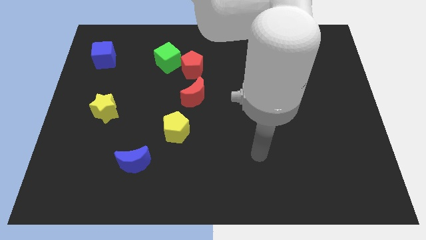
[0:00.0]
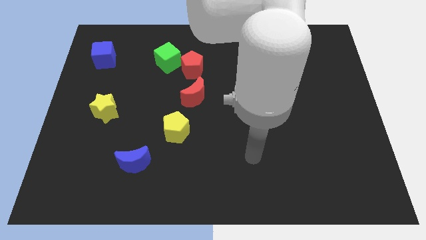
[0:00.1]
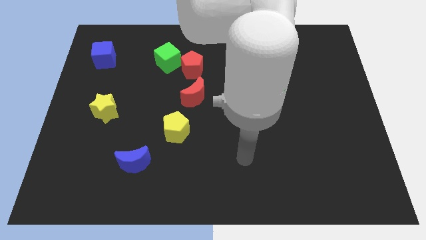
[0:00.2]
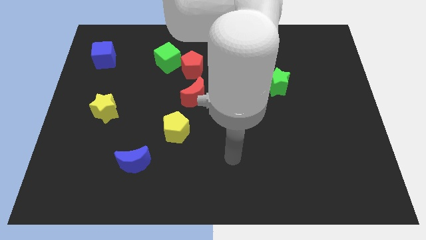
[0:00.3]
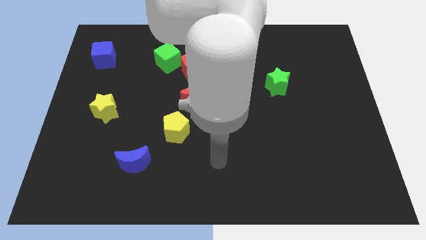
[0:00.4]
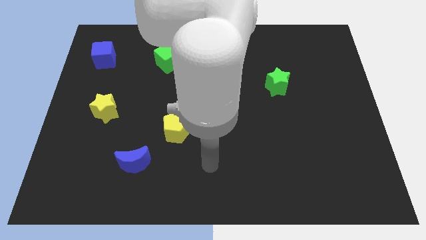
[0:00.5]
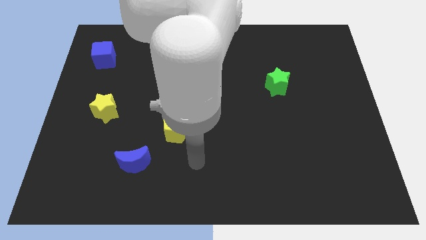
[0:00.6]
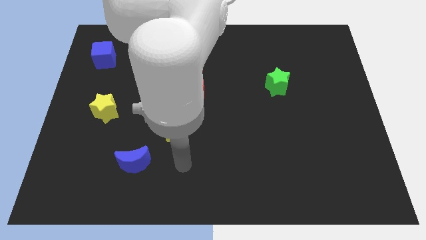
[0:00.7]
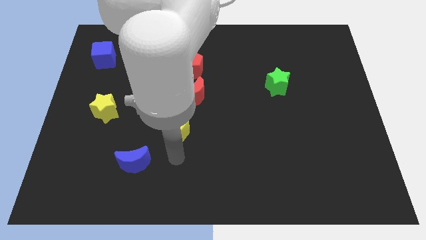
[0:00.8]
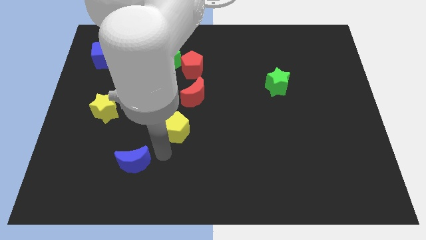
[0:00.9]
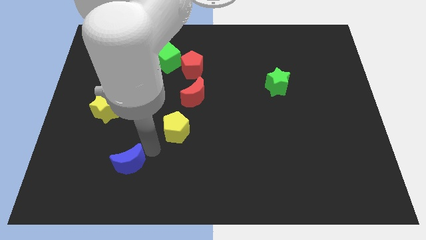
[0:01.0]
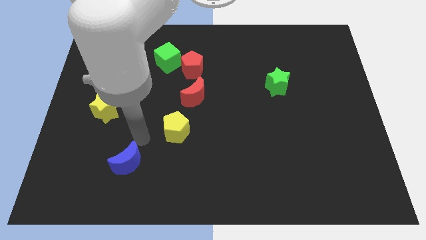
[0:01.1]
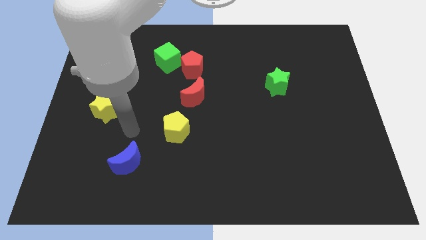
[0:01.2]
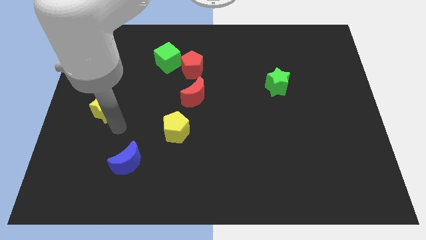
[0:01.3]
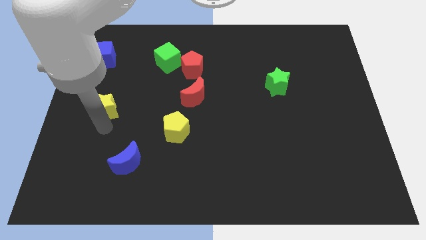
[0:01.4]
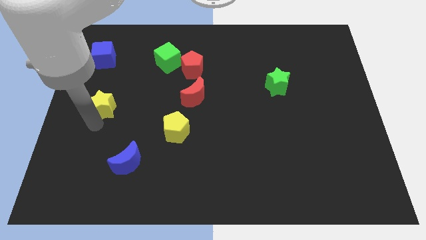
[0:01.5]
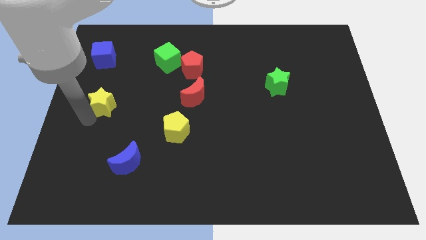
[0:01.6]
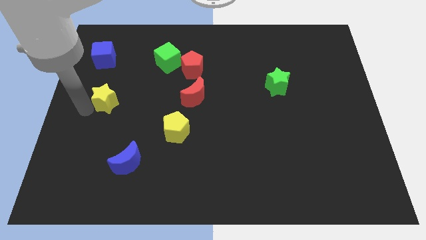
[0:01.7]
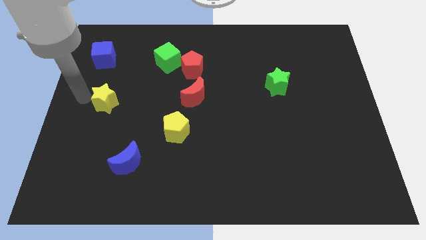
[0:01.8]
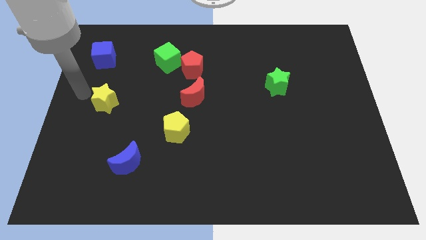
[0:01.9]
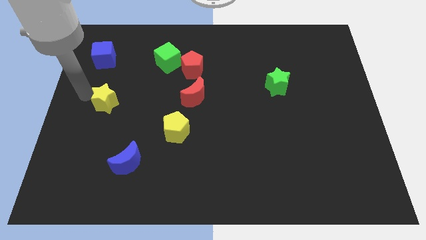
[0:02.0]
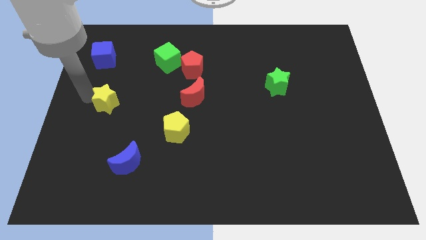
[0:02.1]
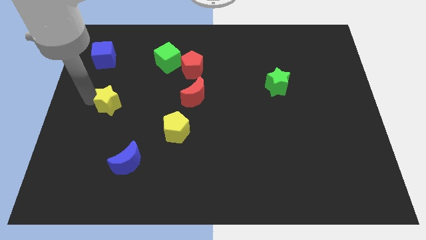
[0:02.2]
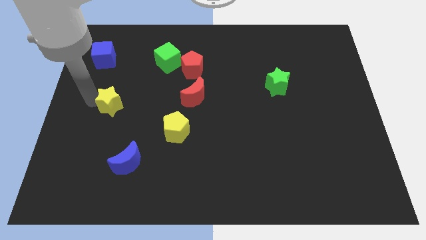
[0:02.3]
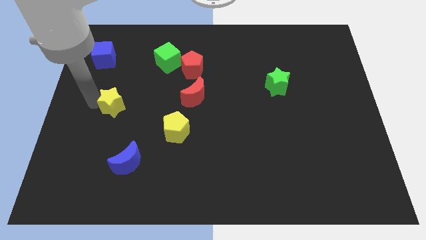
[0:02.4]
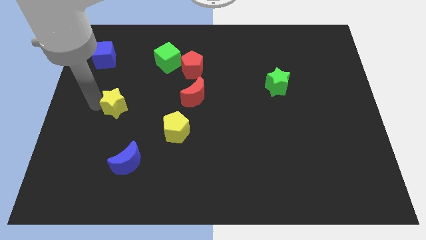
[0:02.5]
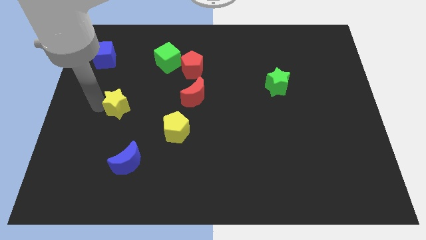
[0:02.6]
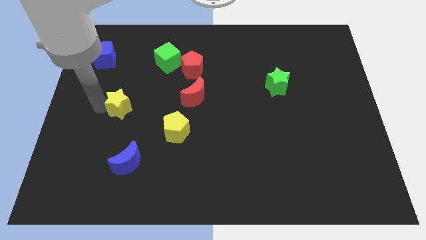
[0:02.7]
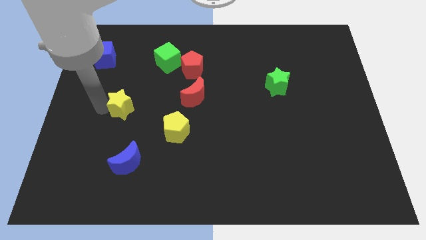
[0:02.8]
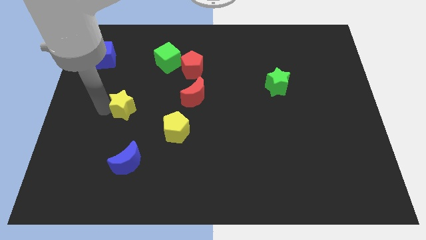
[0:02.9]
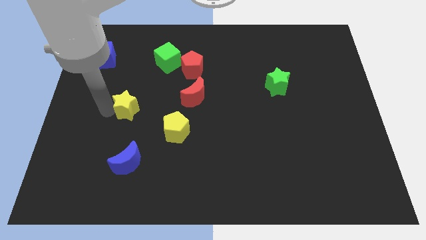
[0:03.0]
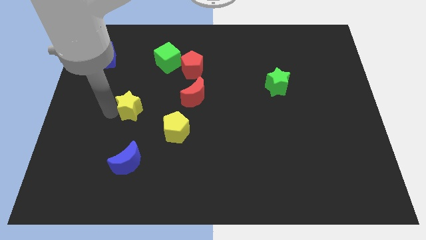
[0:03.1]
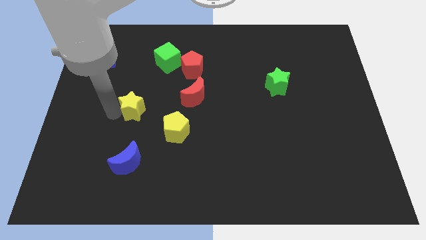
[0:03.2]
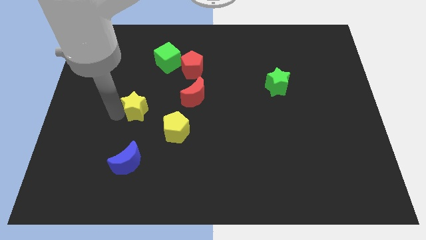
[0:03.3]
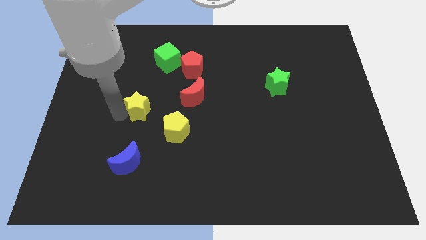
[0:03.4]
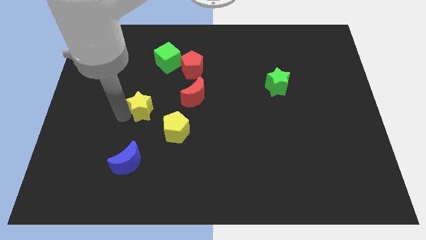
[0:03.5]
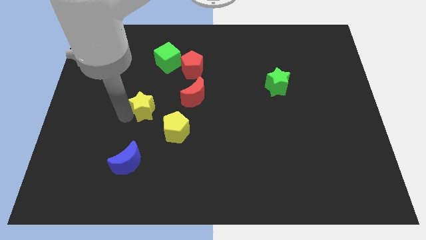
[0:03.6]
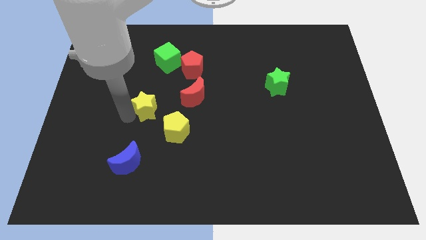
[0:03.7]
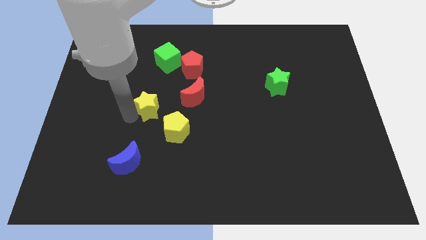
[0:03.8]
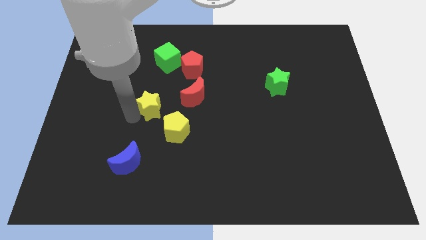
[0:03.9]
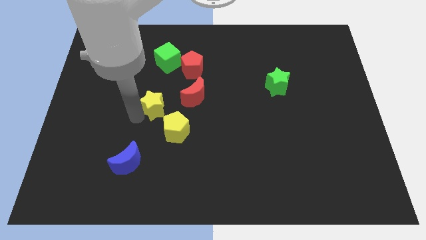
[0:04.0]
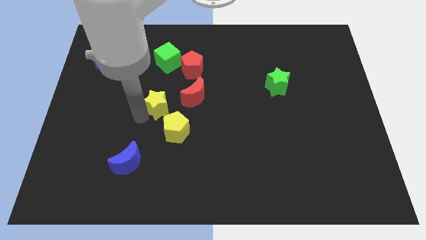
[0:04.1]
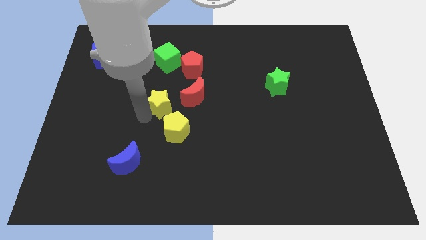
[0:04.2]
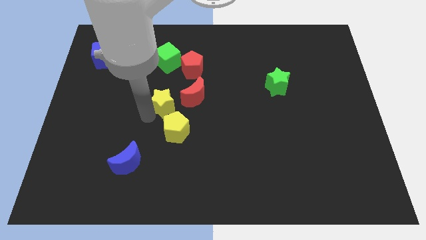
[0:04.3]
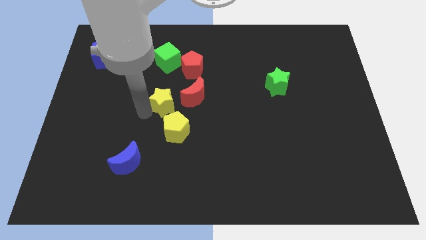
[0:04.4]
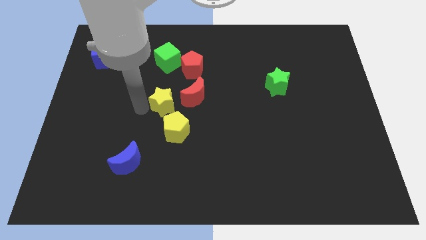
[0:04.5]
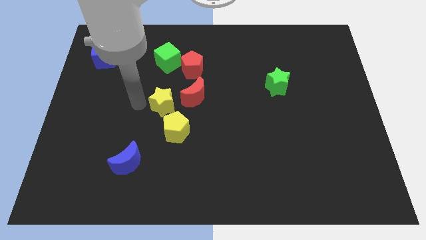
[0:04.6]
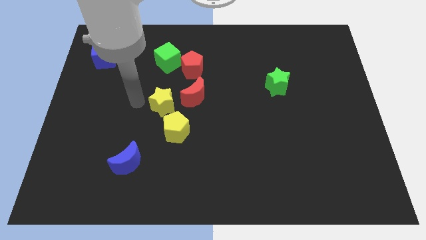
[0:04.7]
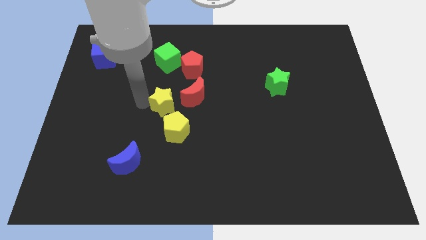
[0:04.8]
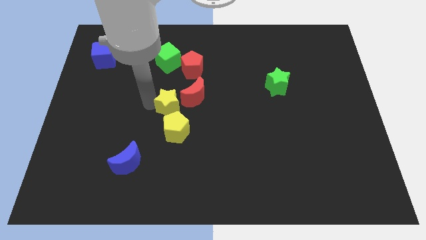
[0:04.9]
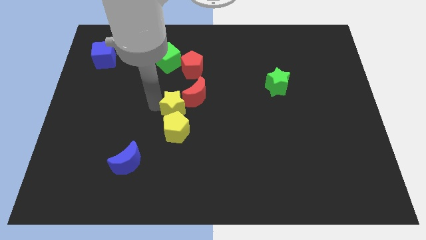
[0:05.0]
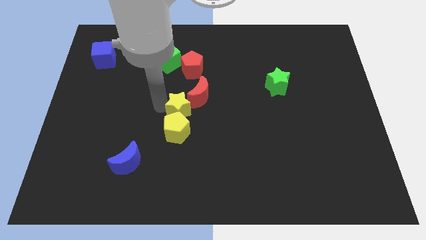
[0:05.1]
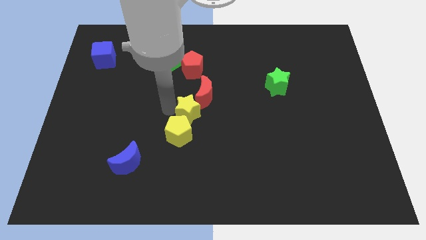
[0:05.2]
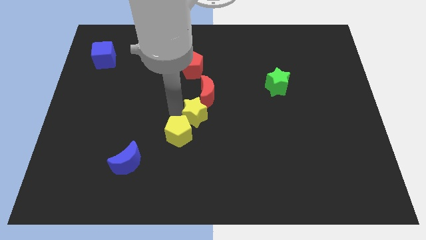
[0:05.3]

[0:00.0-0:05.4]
slide the yellow star right

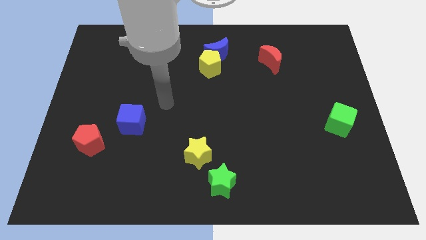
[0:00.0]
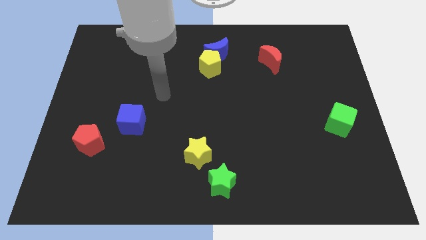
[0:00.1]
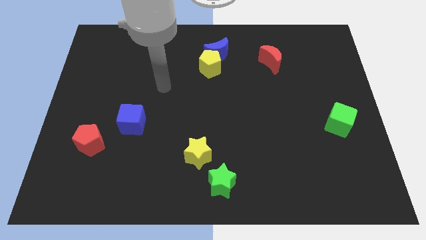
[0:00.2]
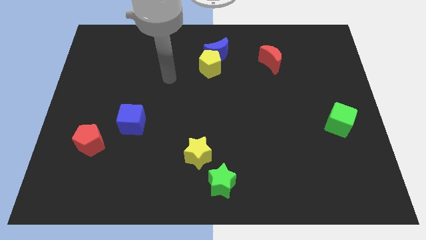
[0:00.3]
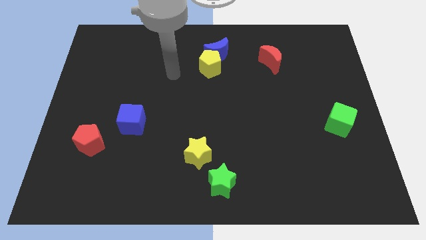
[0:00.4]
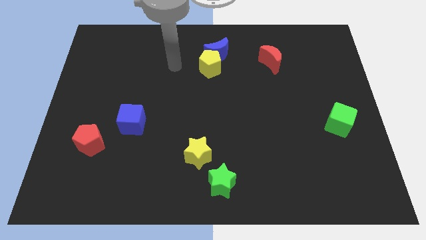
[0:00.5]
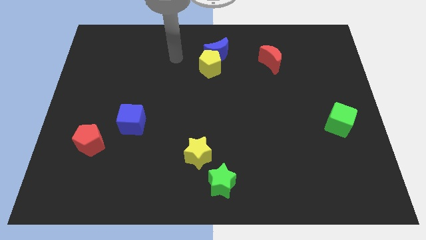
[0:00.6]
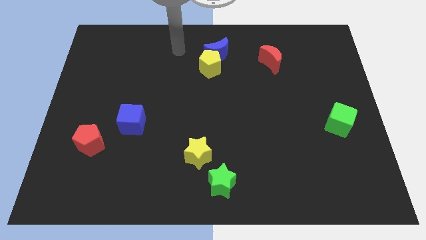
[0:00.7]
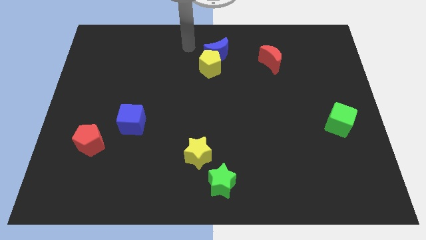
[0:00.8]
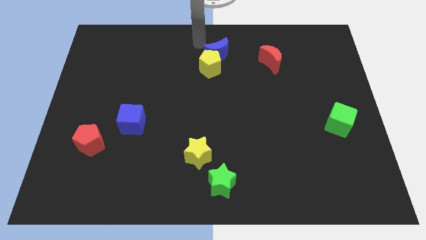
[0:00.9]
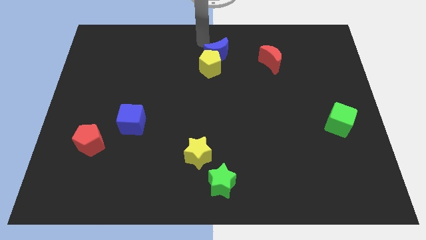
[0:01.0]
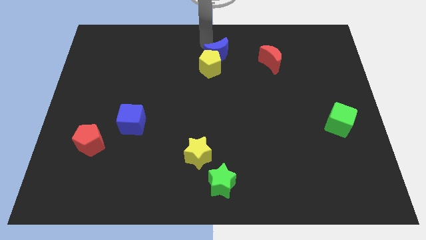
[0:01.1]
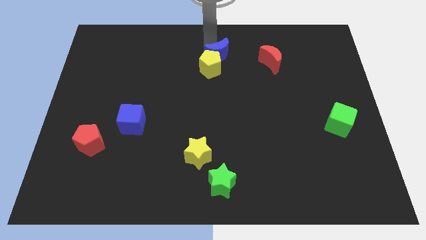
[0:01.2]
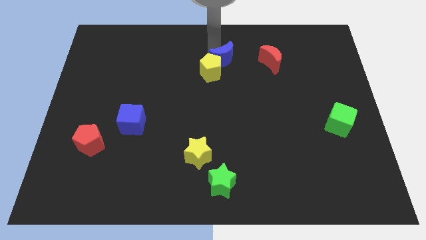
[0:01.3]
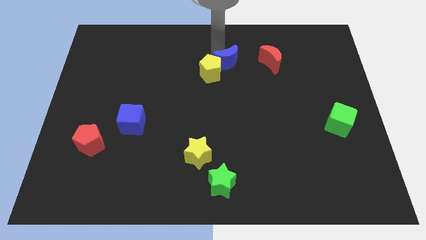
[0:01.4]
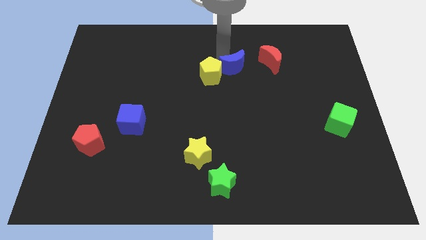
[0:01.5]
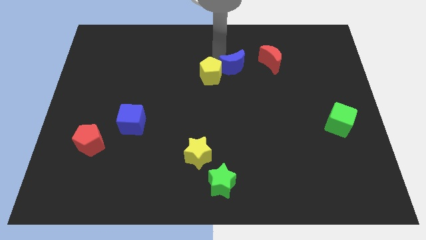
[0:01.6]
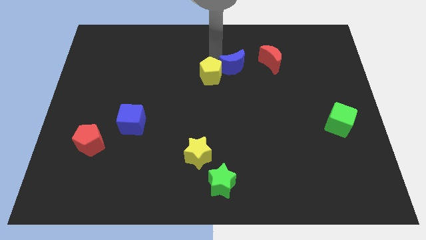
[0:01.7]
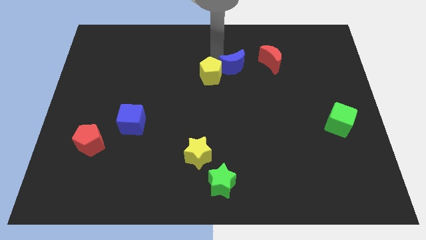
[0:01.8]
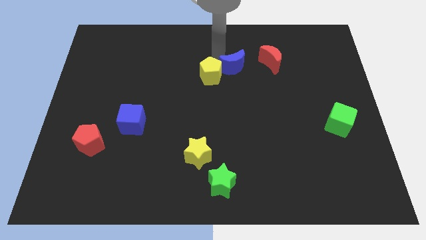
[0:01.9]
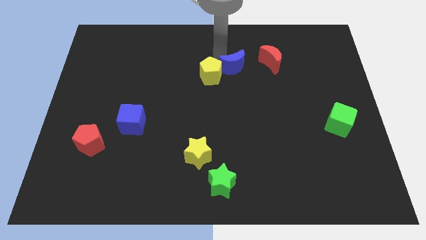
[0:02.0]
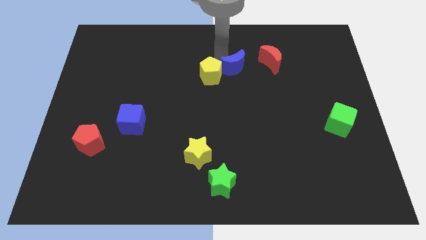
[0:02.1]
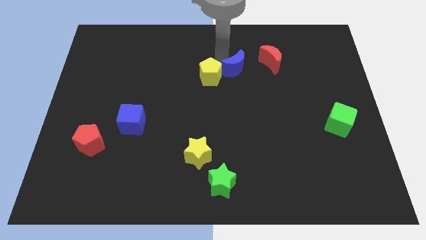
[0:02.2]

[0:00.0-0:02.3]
push the blue moon a little diagonally down and right

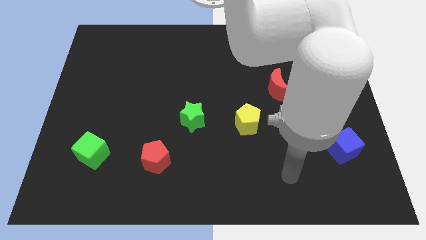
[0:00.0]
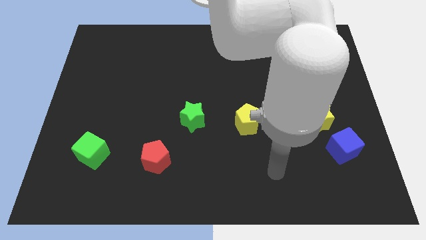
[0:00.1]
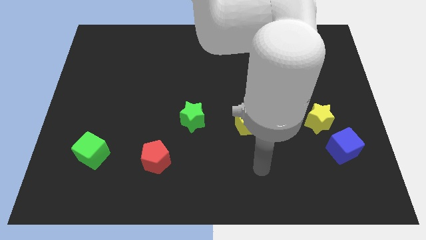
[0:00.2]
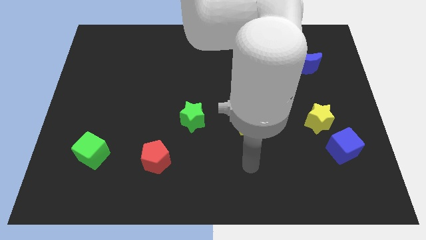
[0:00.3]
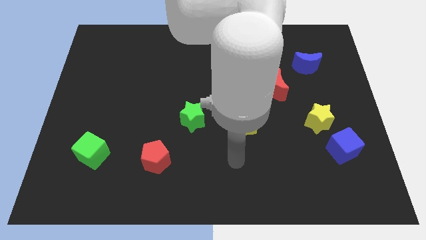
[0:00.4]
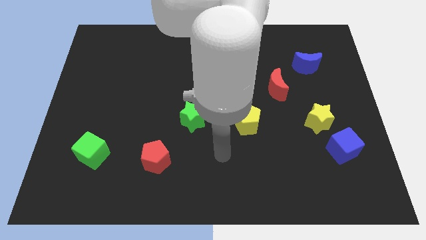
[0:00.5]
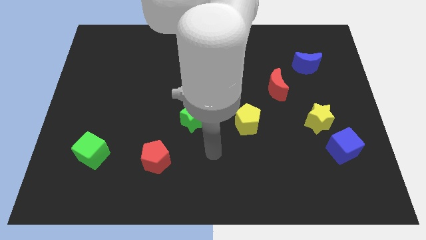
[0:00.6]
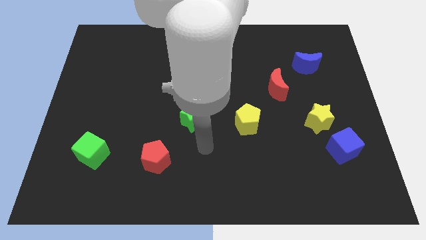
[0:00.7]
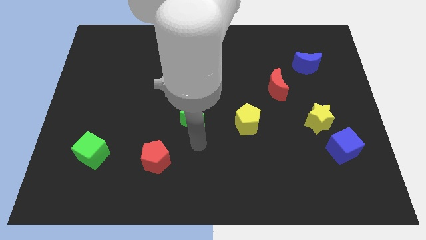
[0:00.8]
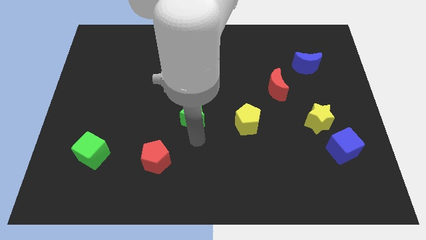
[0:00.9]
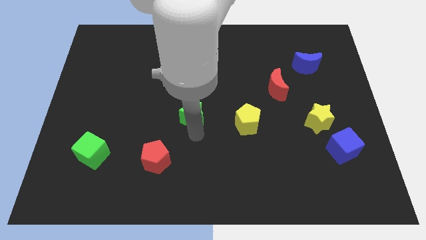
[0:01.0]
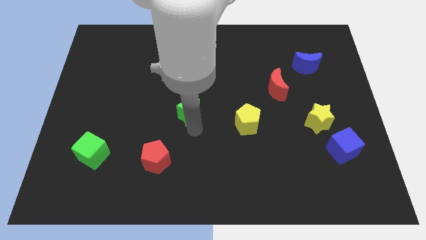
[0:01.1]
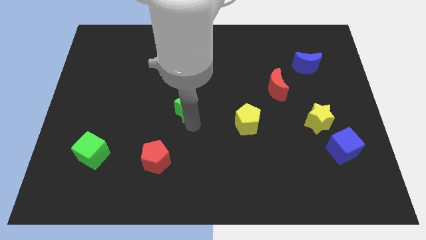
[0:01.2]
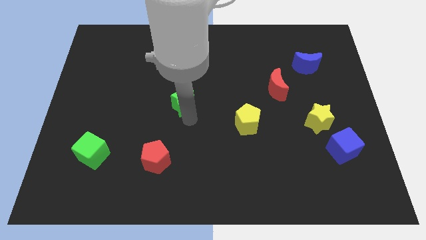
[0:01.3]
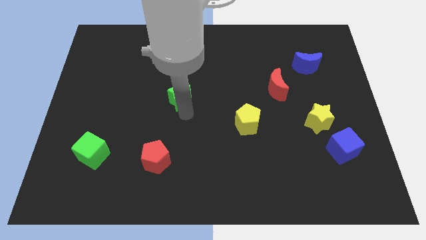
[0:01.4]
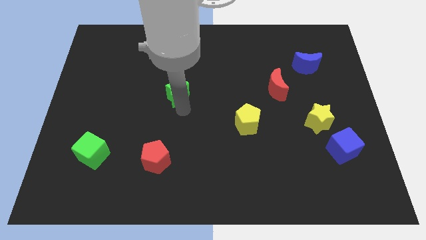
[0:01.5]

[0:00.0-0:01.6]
push the green star up a little
